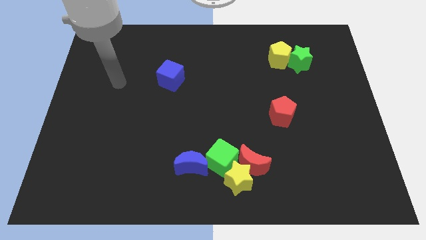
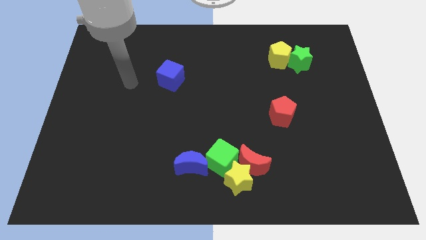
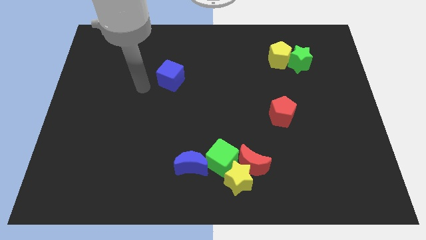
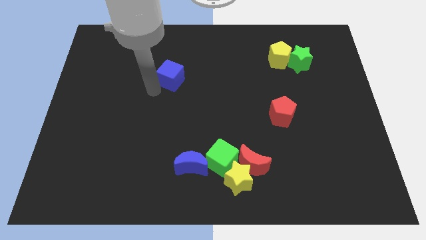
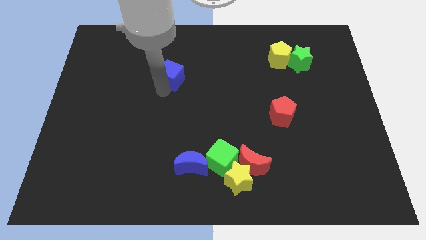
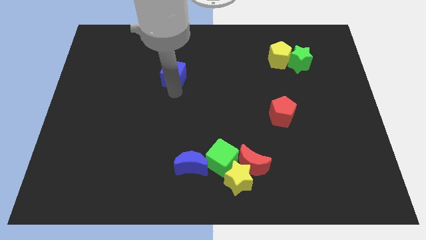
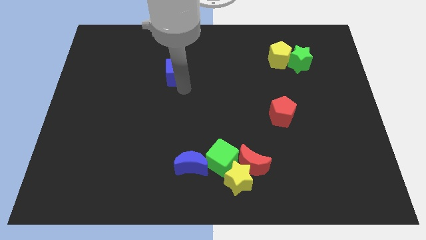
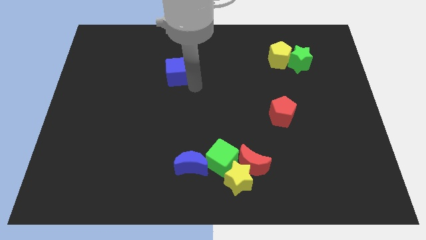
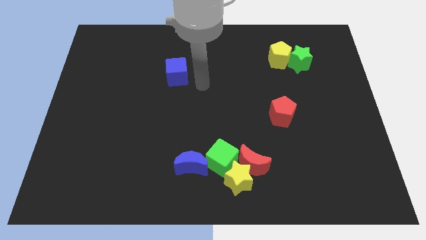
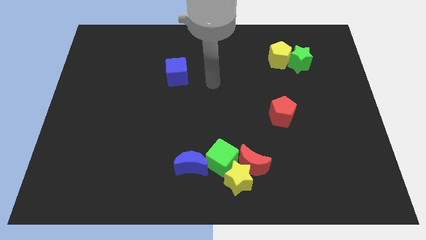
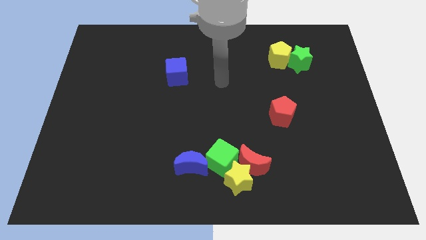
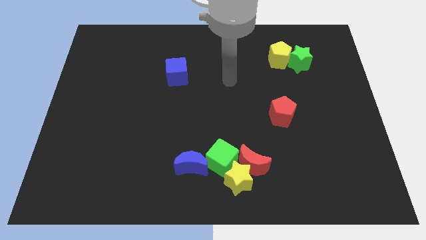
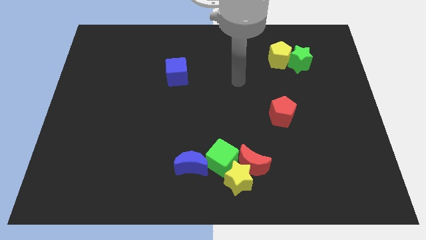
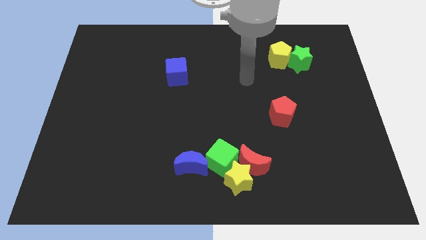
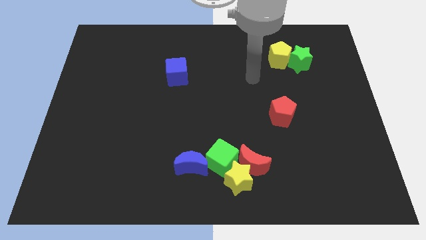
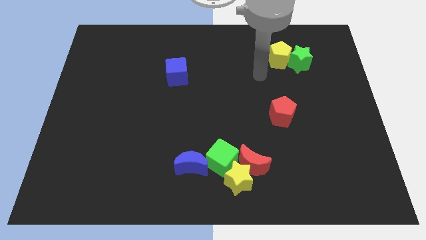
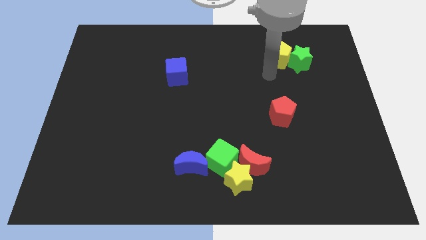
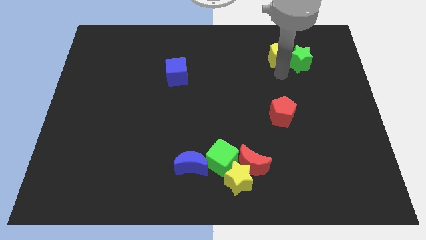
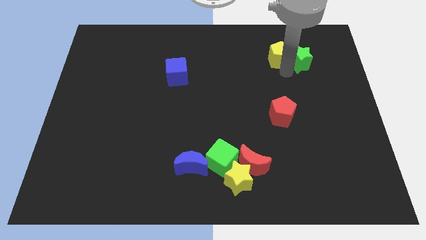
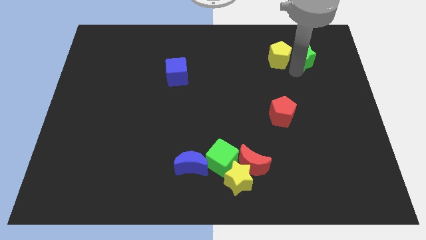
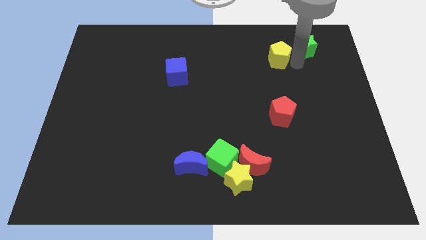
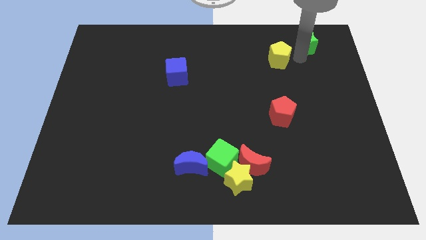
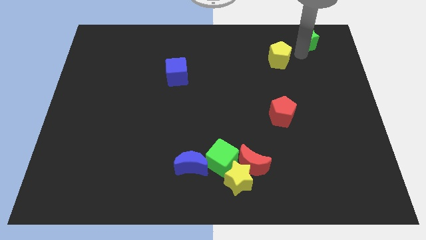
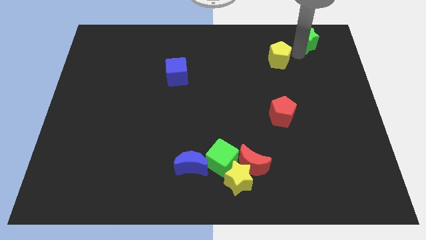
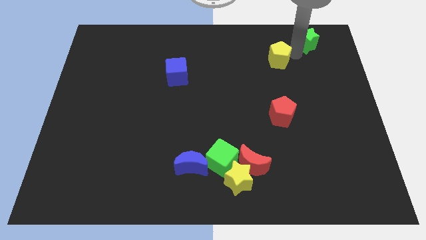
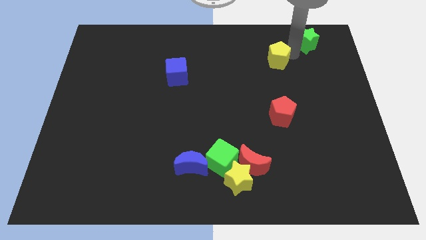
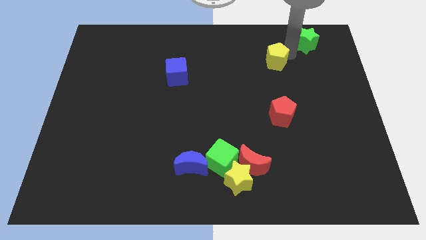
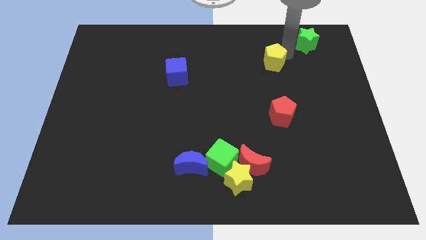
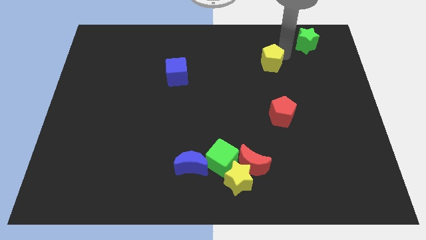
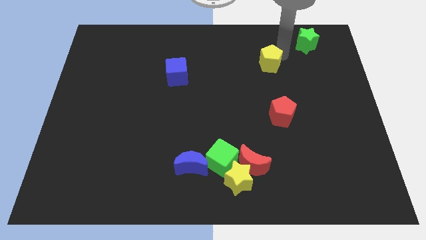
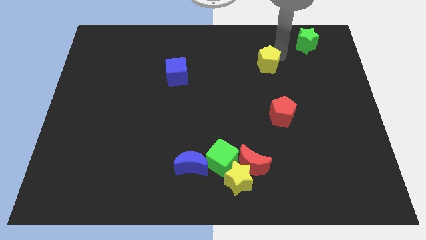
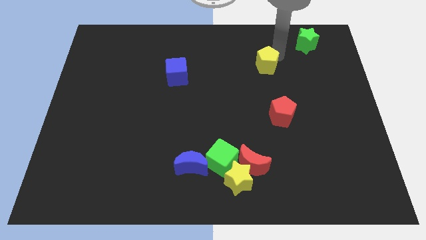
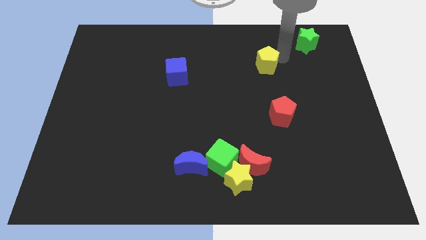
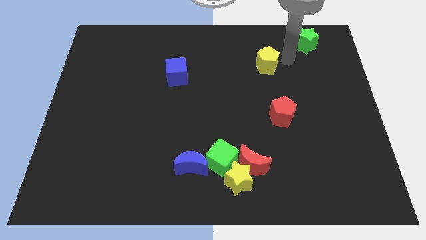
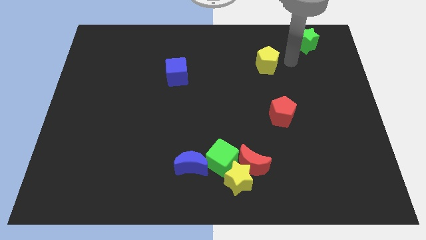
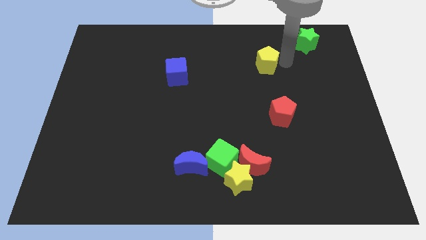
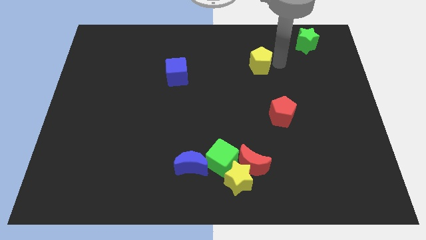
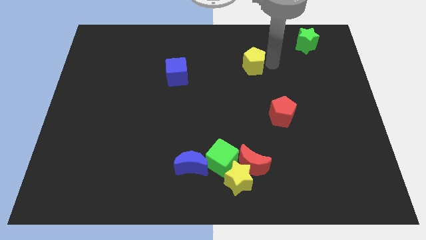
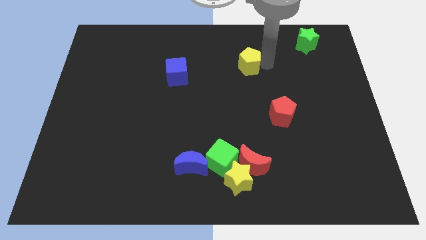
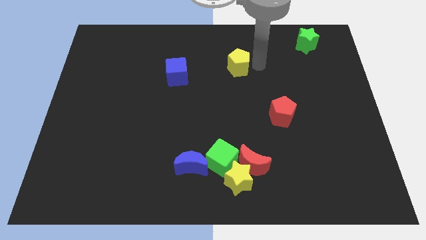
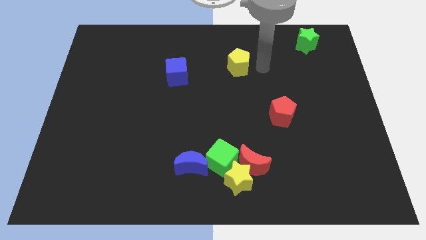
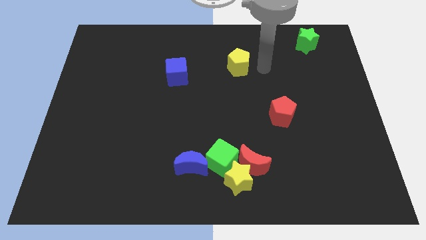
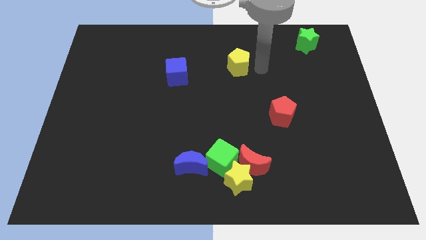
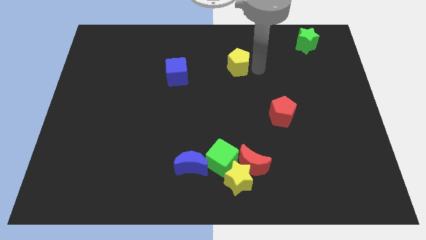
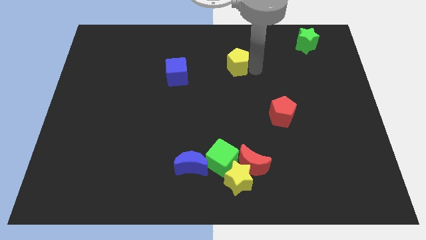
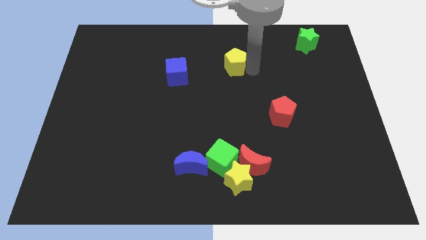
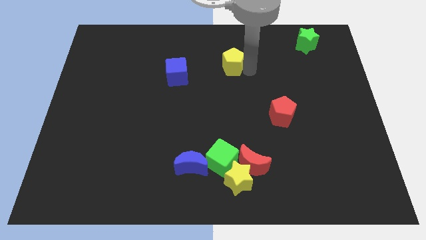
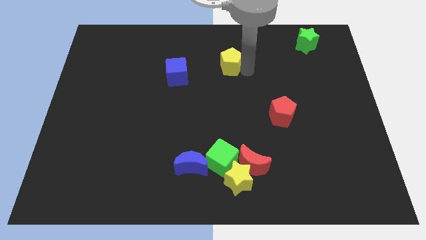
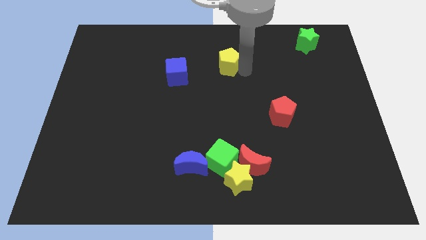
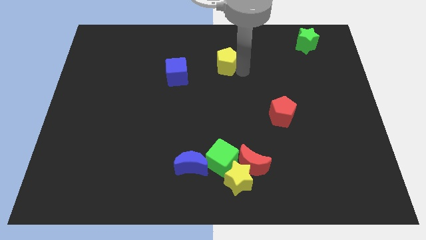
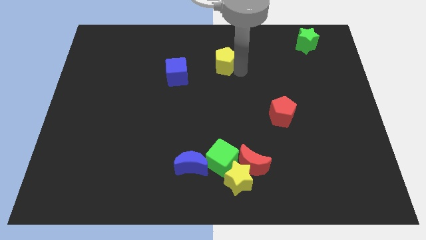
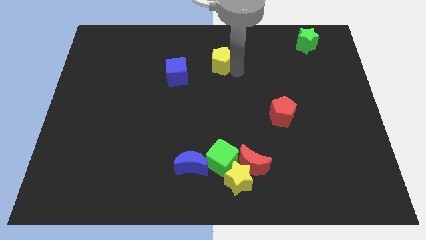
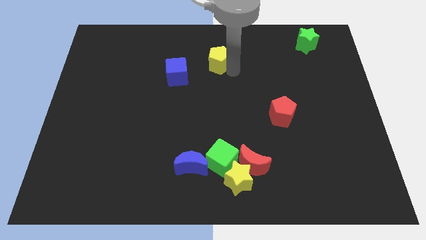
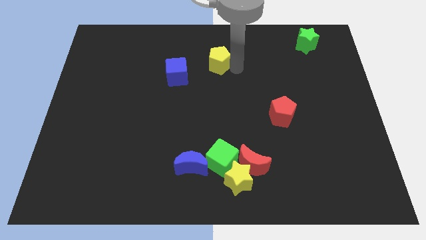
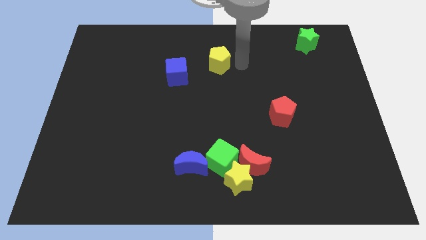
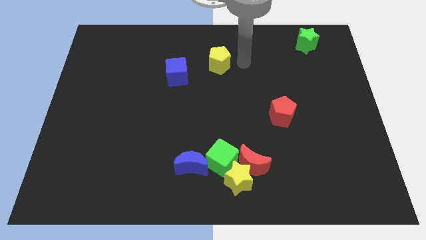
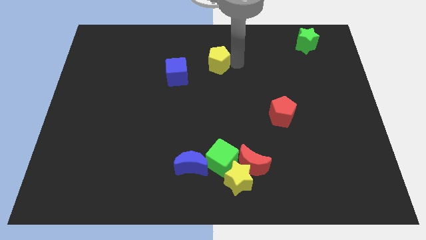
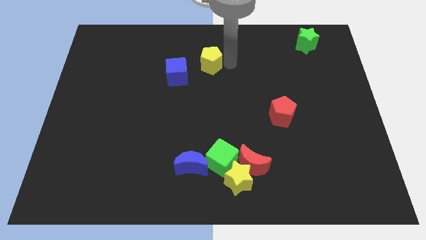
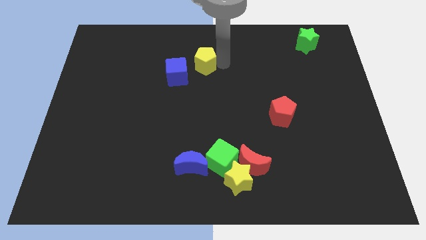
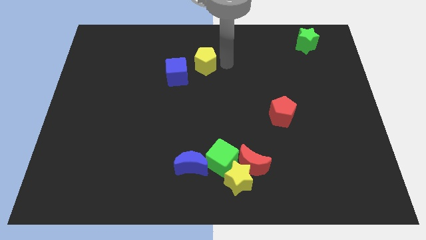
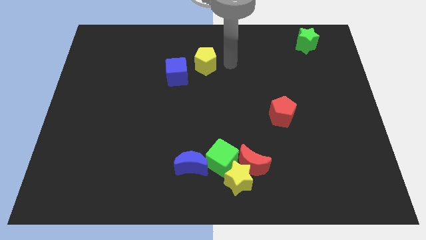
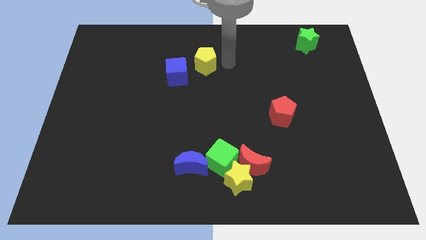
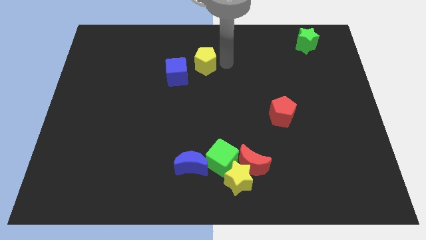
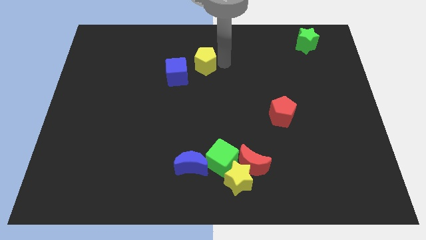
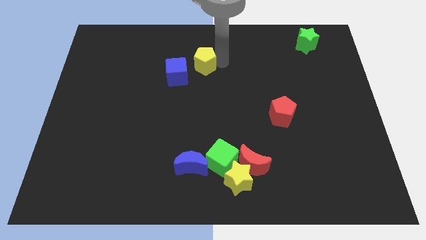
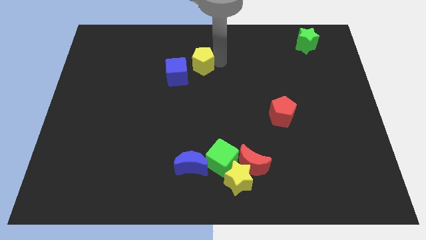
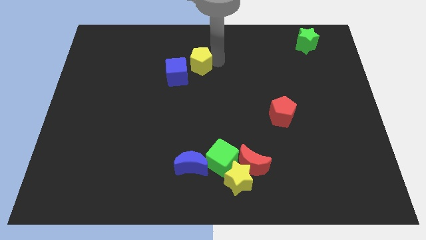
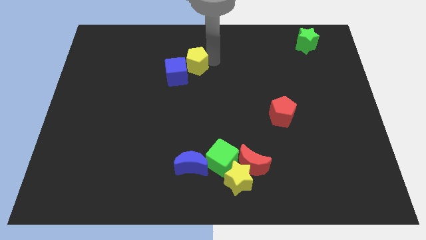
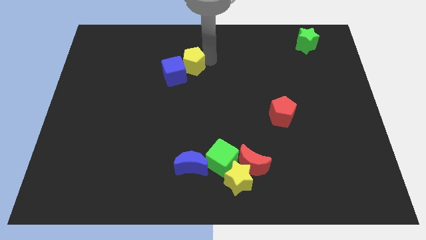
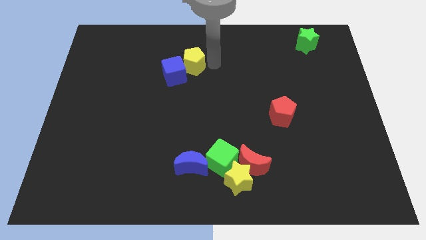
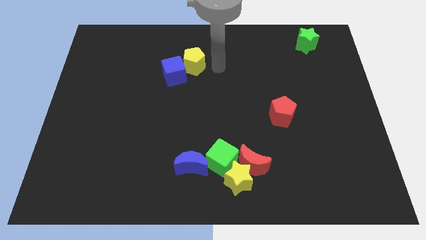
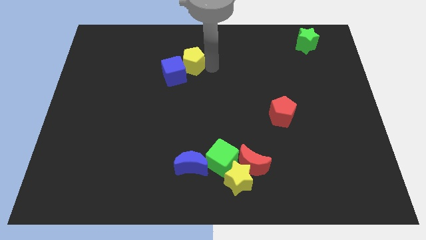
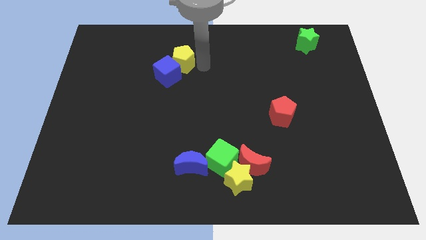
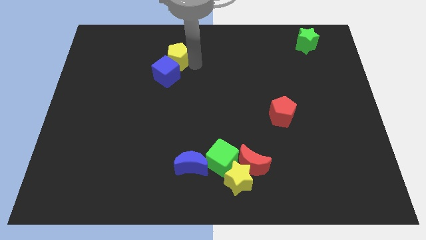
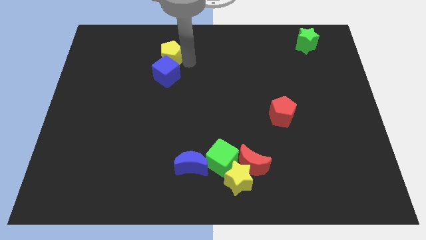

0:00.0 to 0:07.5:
move the yellow pentagon to the top left side of the blue cube

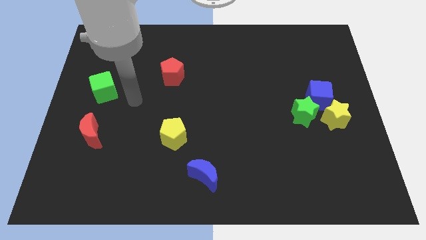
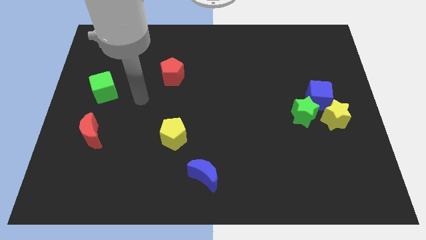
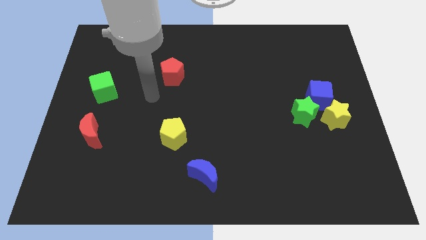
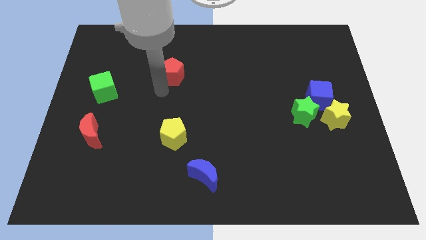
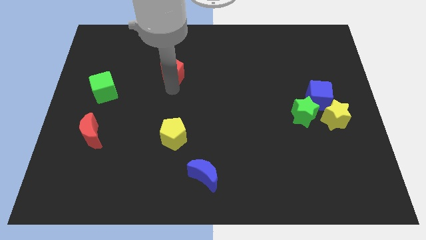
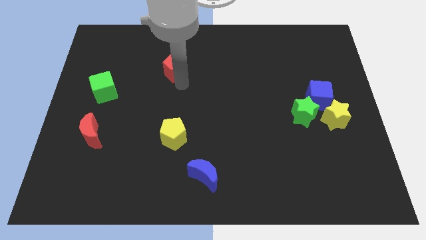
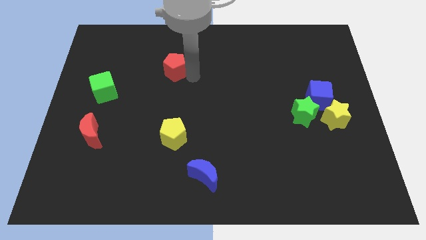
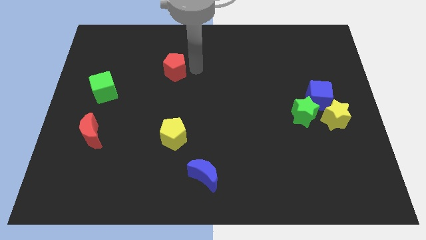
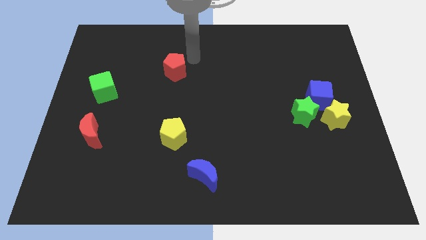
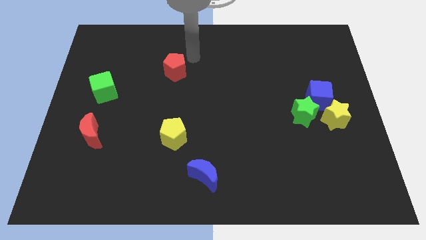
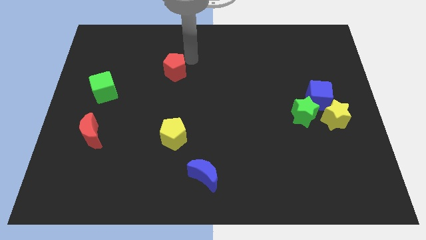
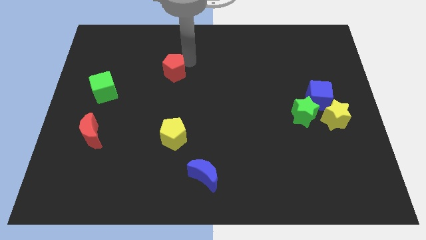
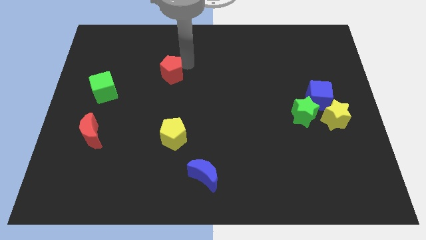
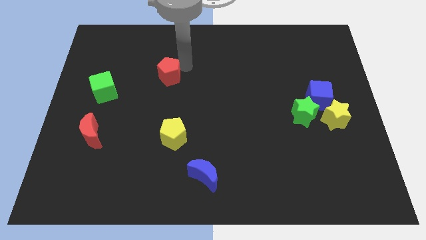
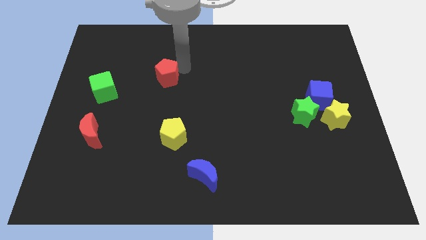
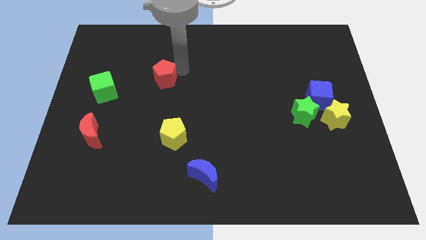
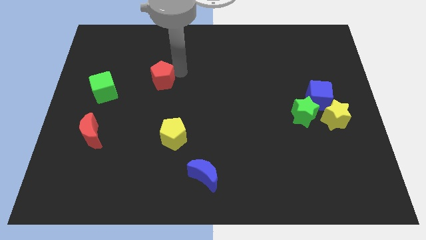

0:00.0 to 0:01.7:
put the red pentagon to the right of the green cube
